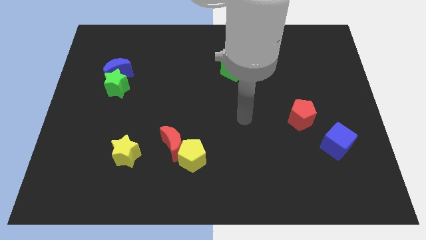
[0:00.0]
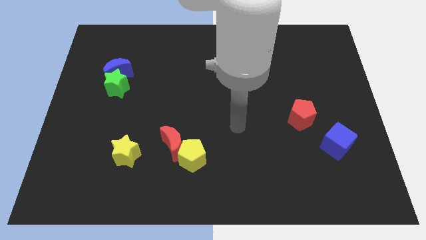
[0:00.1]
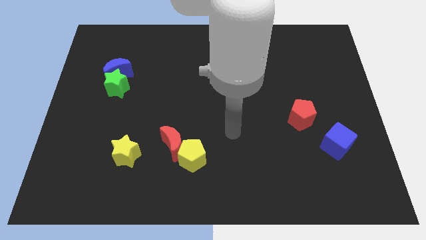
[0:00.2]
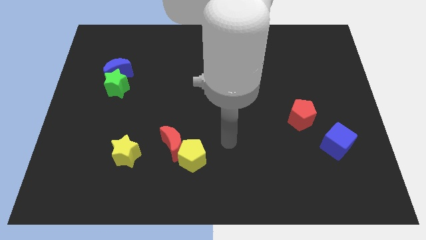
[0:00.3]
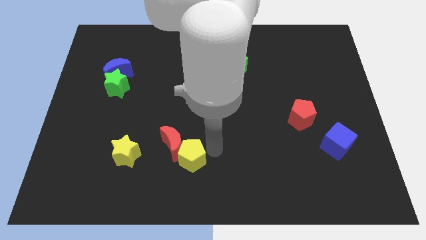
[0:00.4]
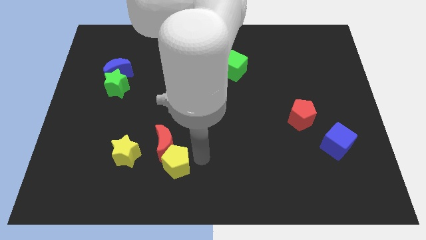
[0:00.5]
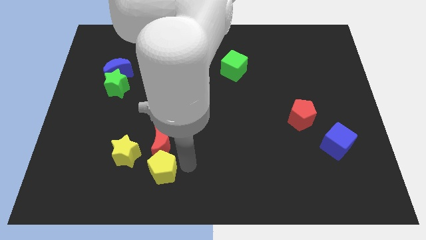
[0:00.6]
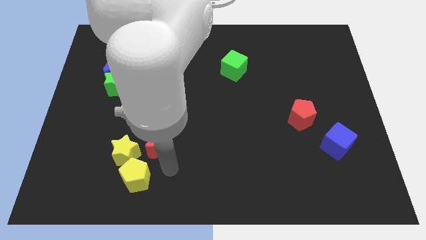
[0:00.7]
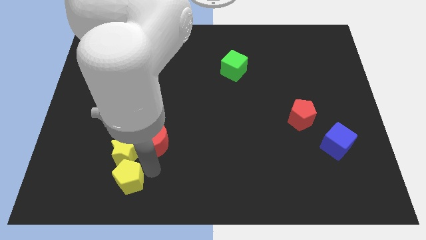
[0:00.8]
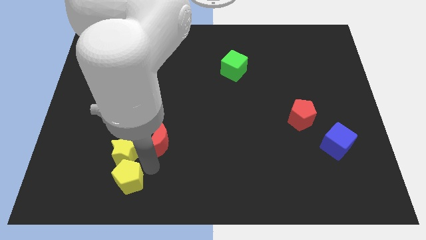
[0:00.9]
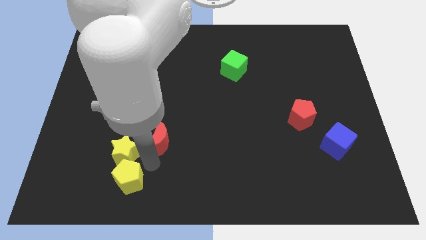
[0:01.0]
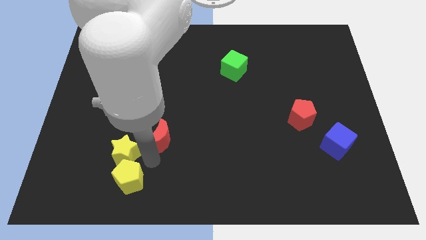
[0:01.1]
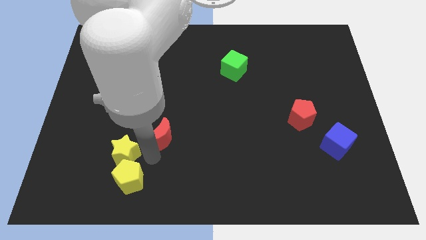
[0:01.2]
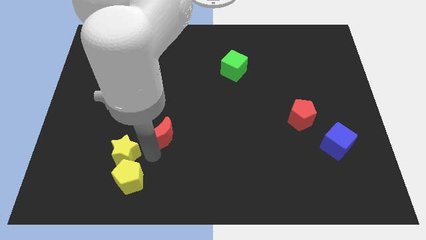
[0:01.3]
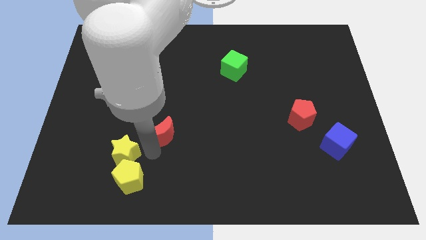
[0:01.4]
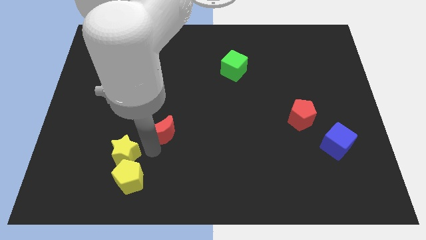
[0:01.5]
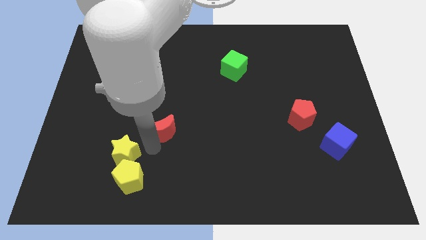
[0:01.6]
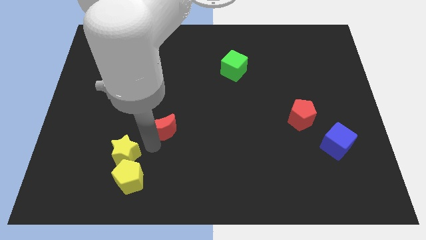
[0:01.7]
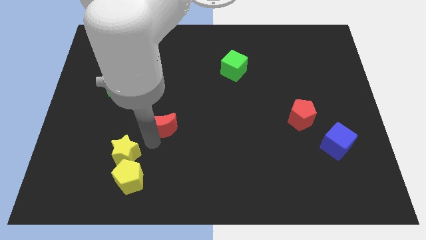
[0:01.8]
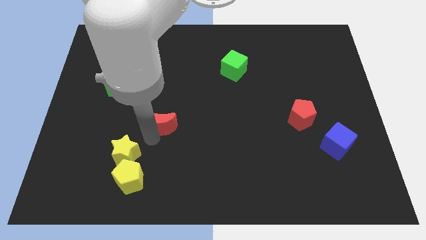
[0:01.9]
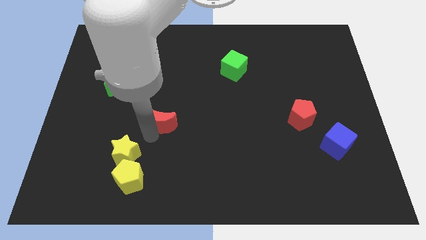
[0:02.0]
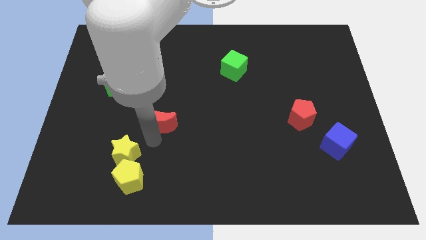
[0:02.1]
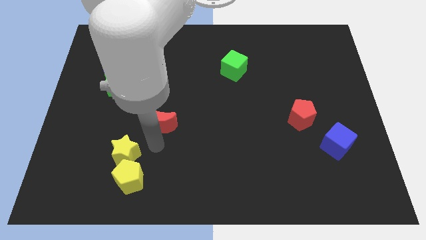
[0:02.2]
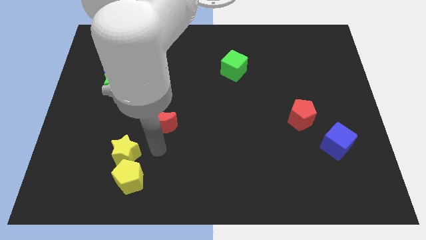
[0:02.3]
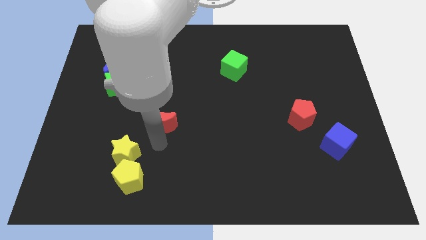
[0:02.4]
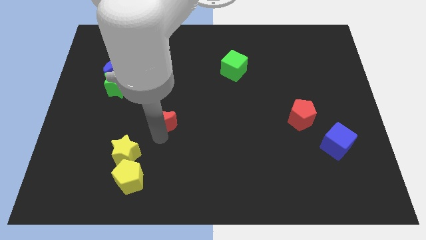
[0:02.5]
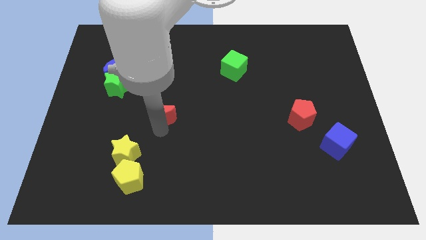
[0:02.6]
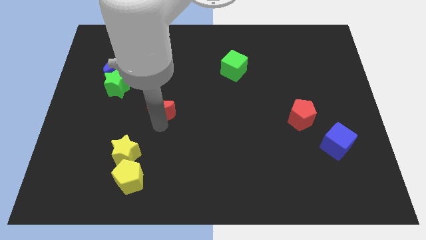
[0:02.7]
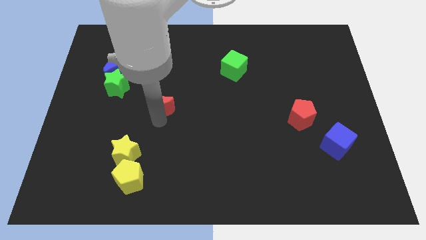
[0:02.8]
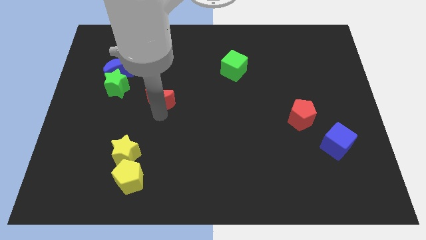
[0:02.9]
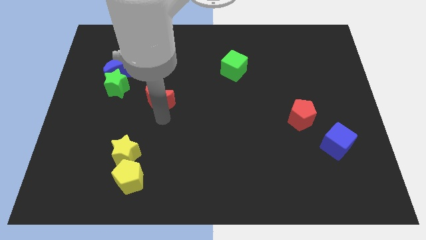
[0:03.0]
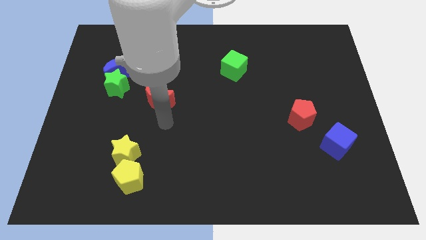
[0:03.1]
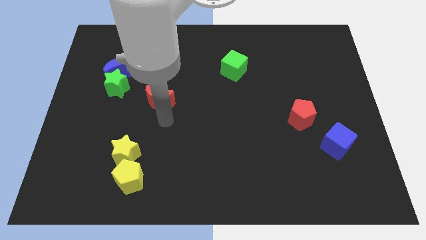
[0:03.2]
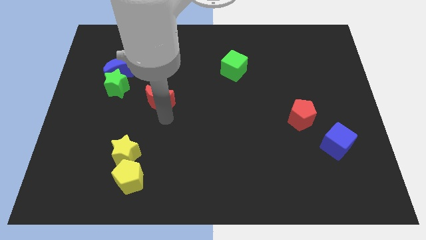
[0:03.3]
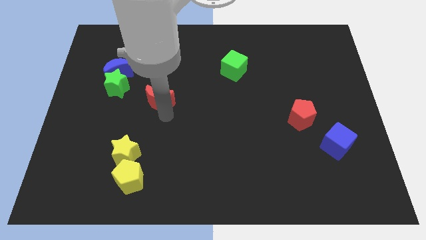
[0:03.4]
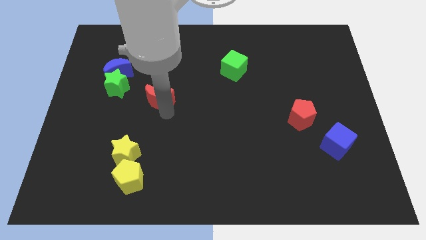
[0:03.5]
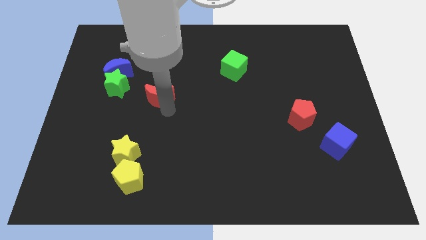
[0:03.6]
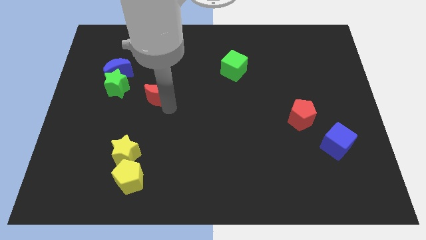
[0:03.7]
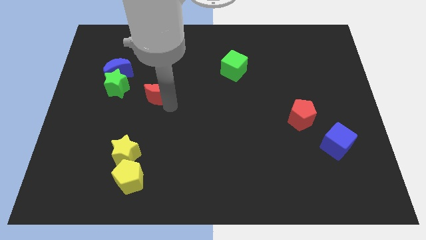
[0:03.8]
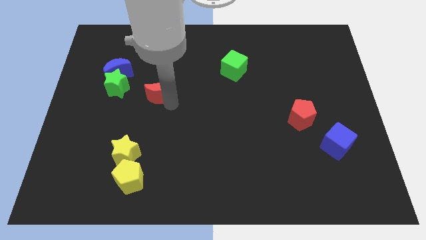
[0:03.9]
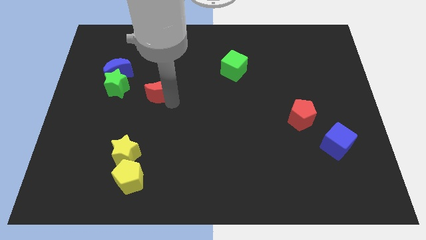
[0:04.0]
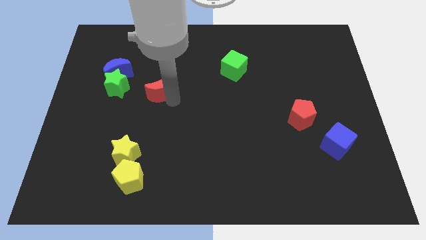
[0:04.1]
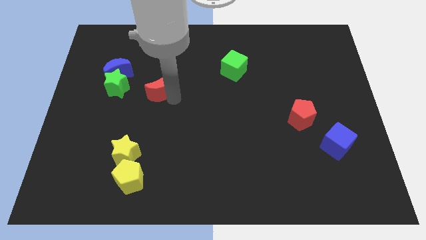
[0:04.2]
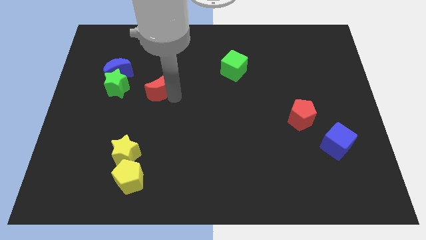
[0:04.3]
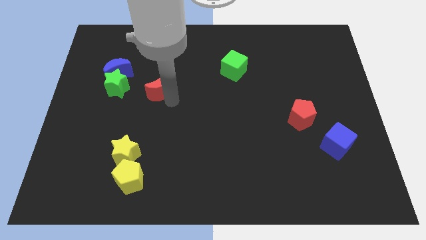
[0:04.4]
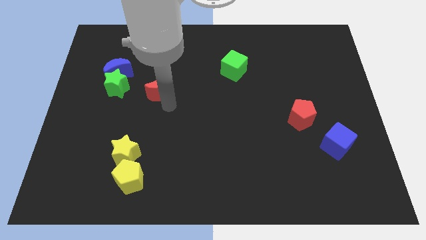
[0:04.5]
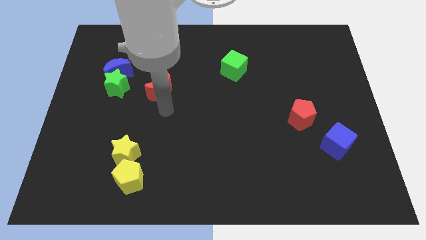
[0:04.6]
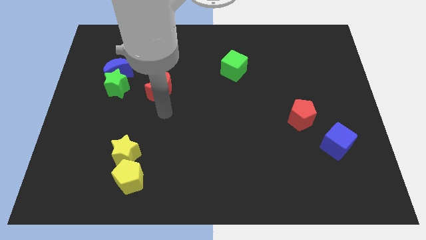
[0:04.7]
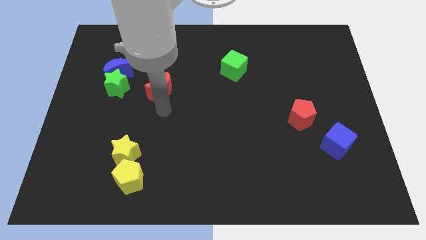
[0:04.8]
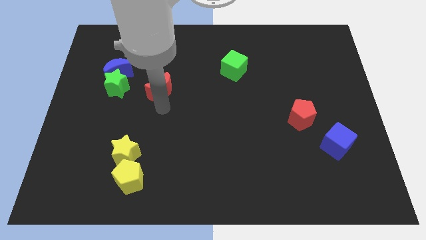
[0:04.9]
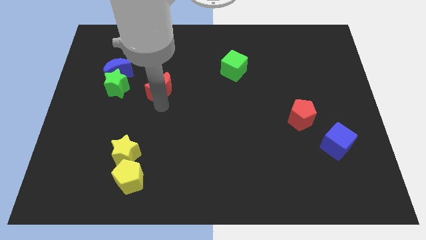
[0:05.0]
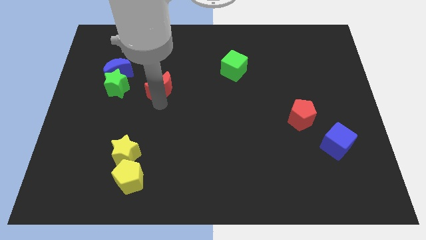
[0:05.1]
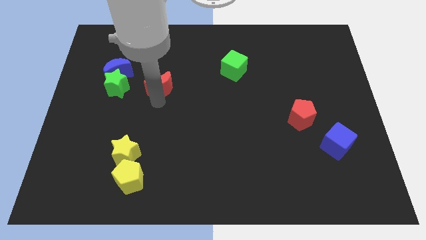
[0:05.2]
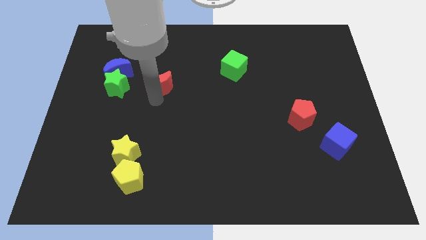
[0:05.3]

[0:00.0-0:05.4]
slide the red moon to the right side of the blue moon

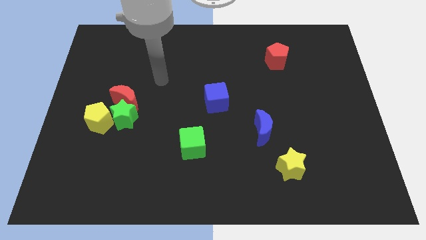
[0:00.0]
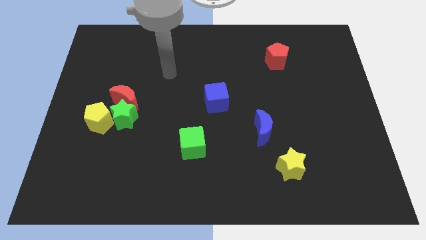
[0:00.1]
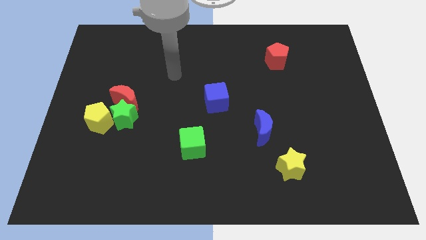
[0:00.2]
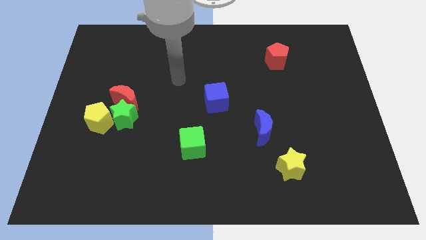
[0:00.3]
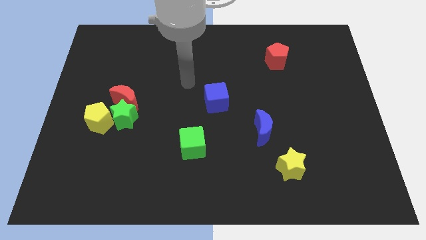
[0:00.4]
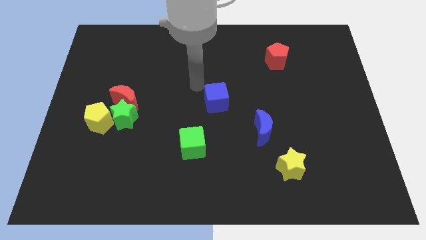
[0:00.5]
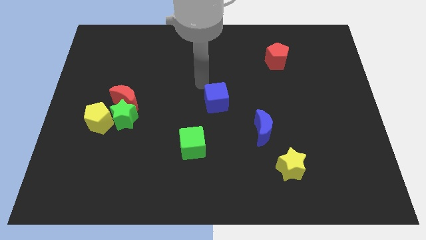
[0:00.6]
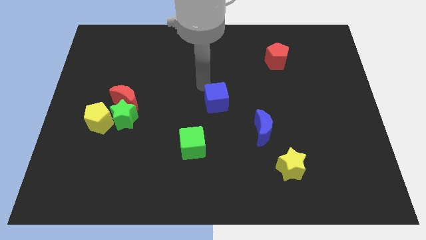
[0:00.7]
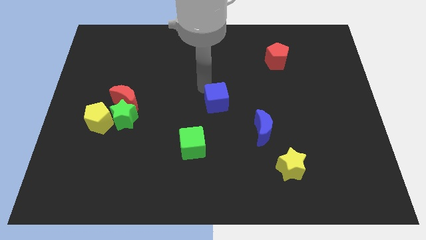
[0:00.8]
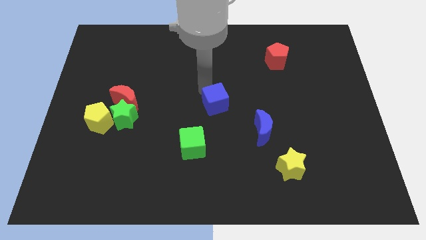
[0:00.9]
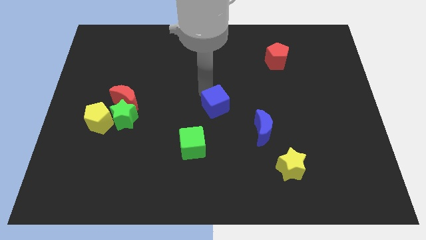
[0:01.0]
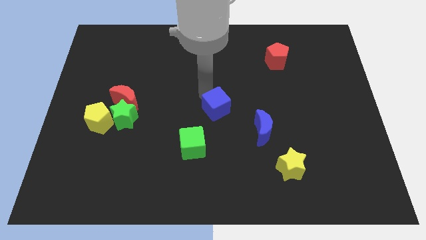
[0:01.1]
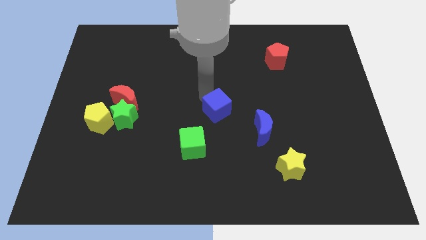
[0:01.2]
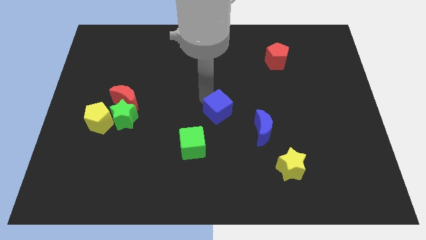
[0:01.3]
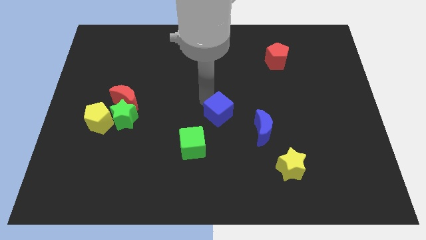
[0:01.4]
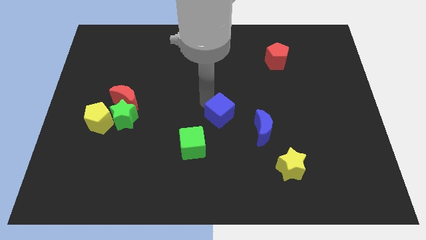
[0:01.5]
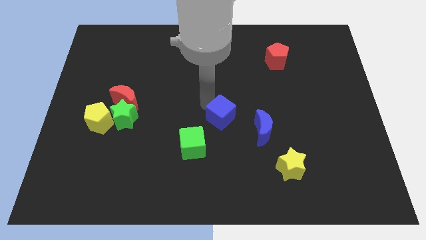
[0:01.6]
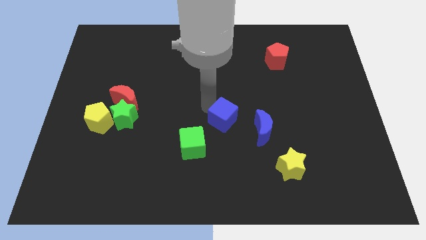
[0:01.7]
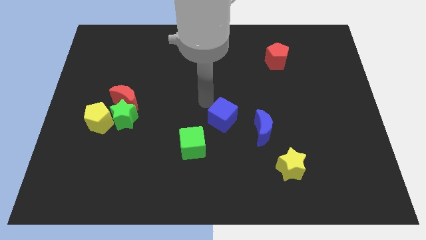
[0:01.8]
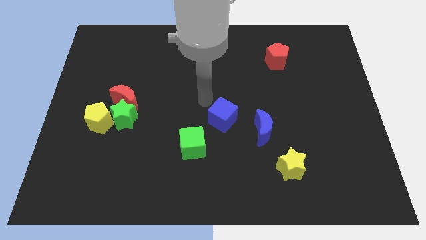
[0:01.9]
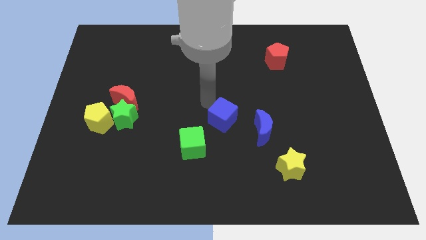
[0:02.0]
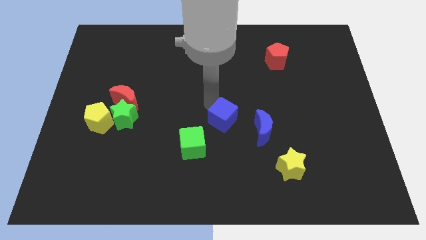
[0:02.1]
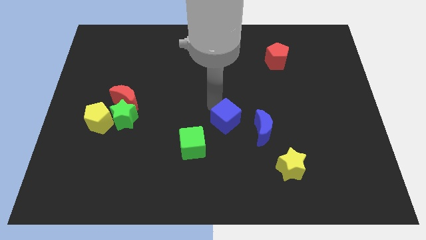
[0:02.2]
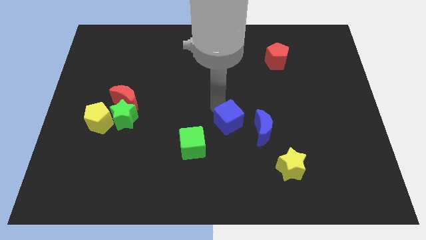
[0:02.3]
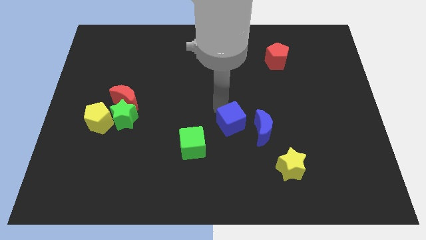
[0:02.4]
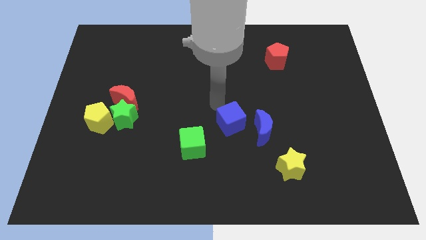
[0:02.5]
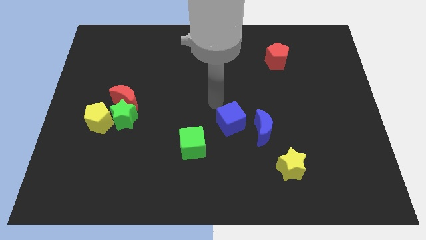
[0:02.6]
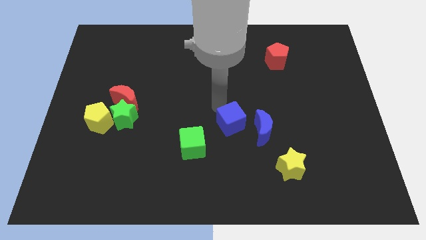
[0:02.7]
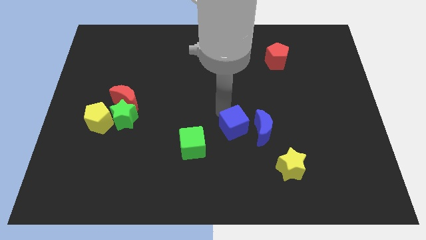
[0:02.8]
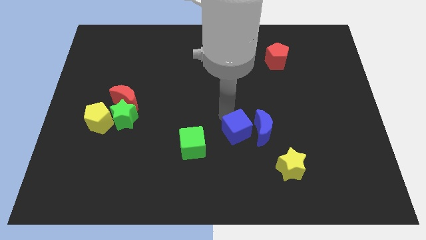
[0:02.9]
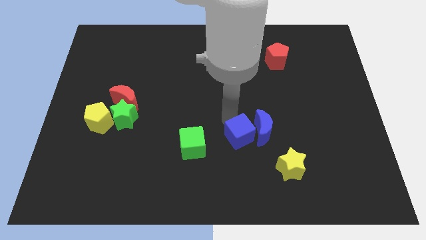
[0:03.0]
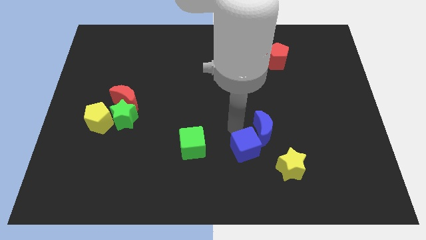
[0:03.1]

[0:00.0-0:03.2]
move the blue cube to the bottom of the blue moon
